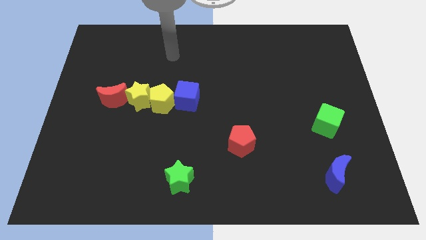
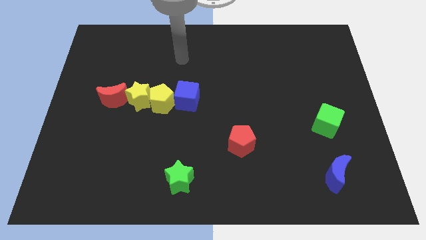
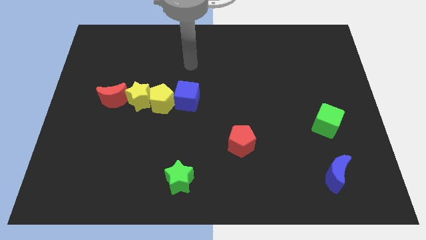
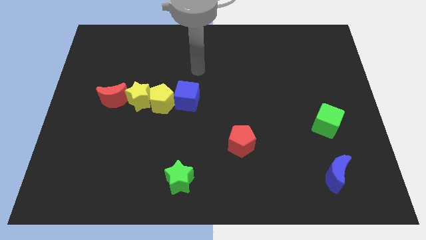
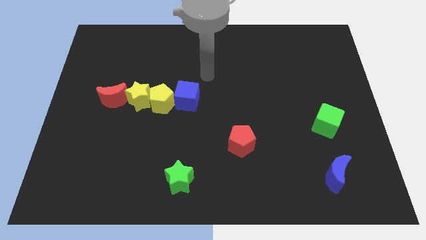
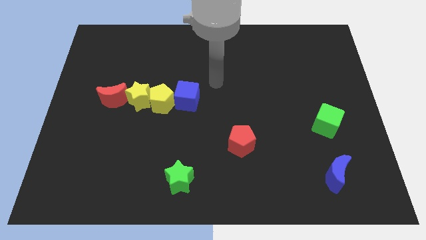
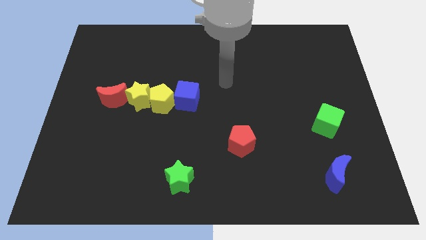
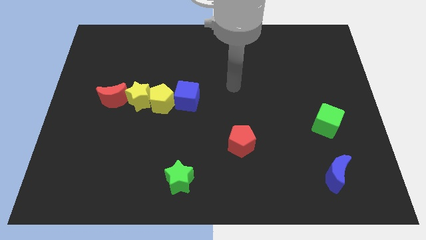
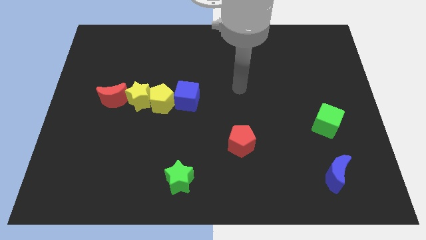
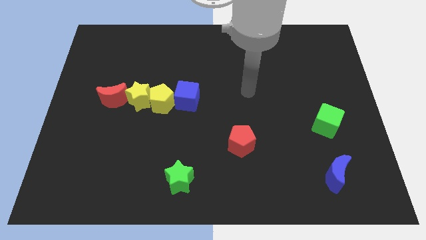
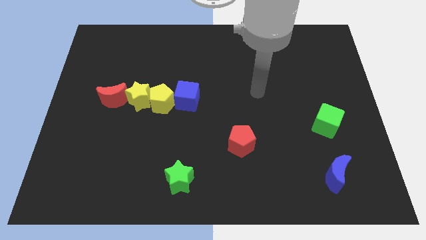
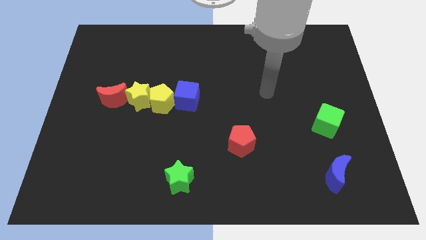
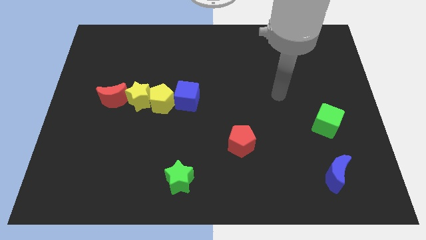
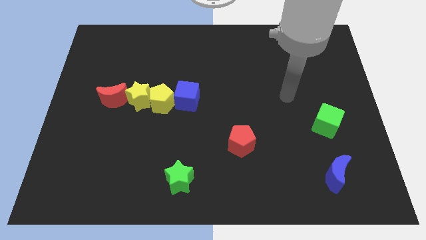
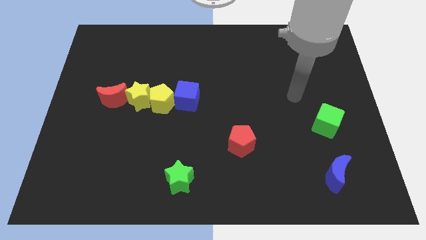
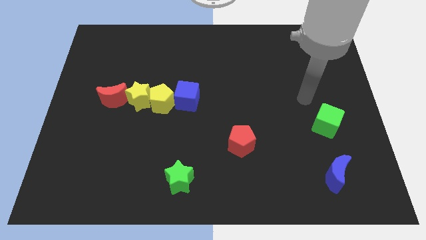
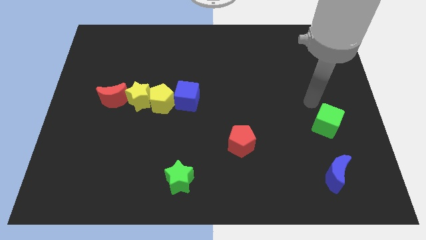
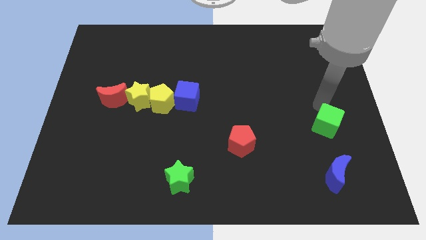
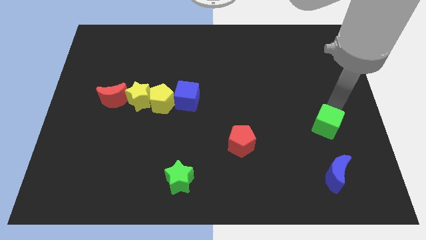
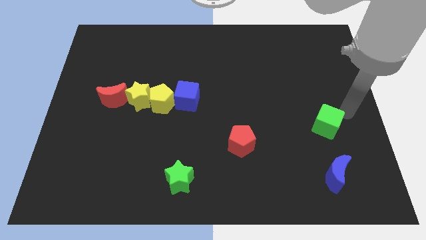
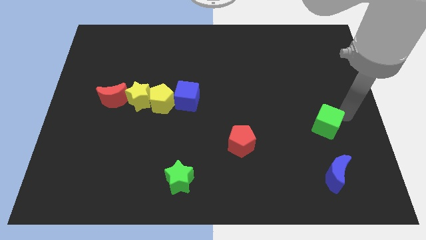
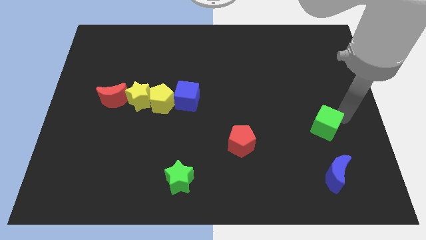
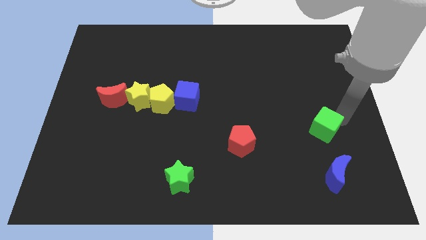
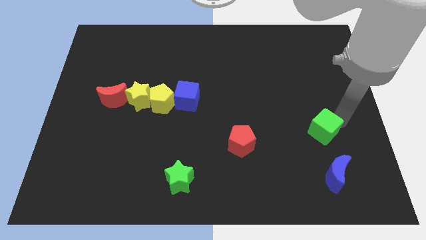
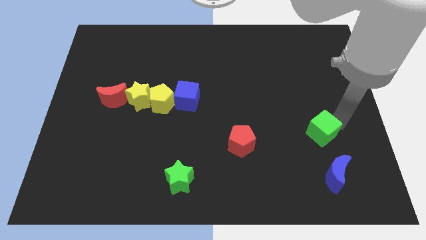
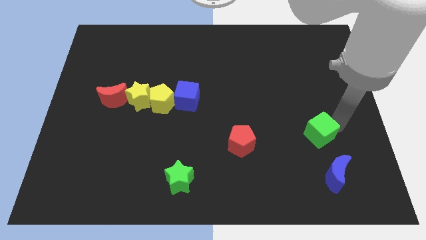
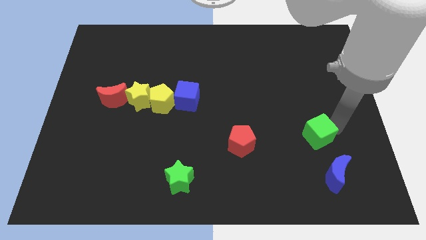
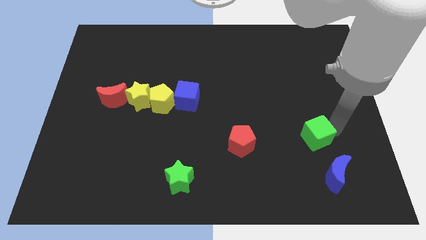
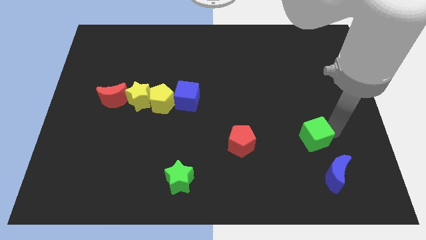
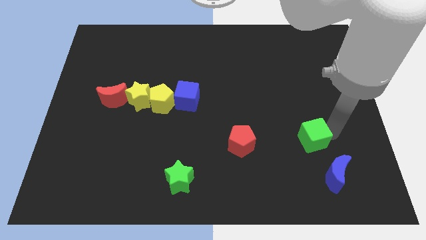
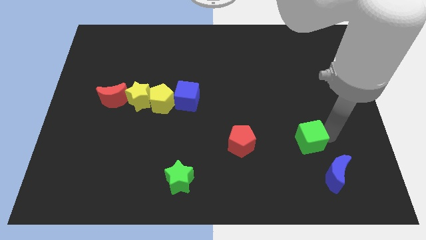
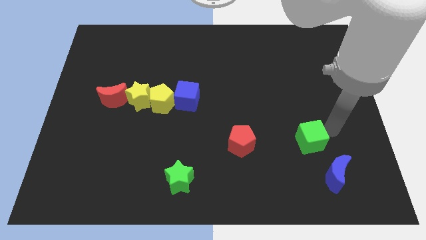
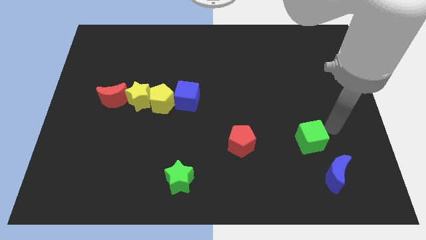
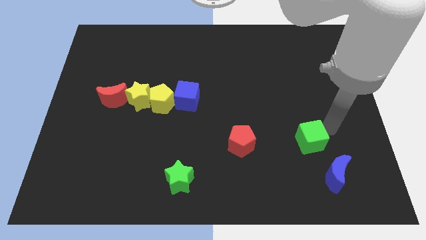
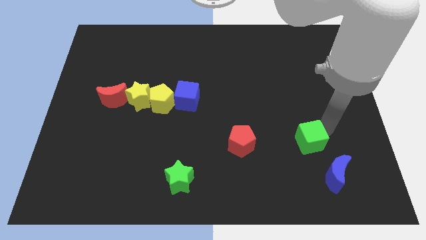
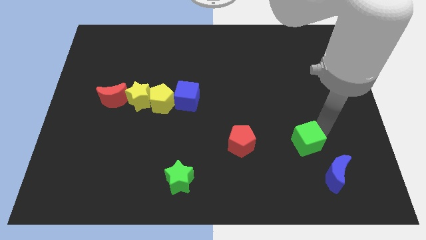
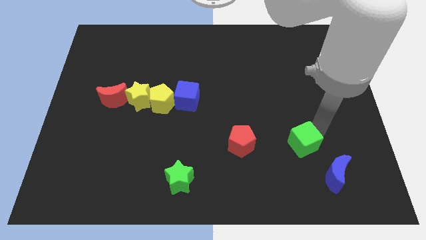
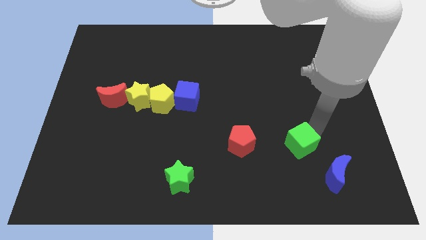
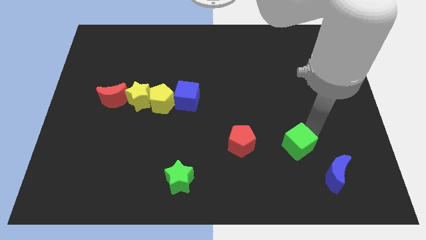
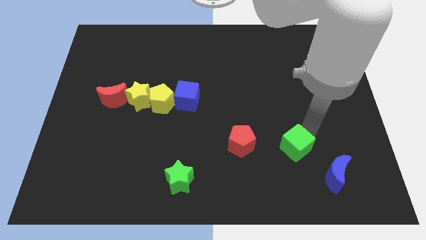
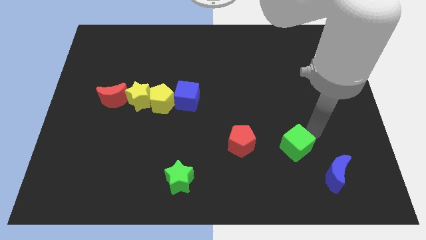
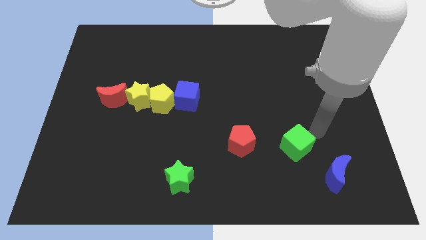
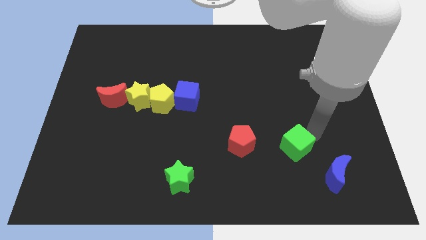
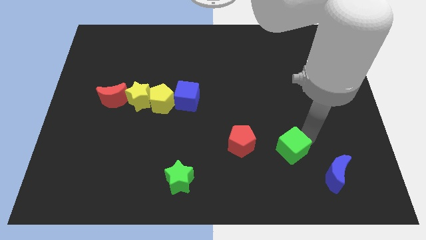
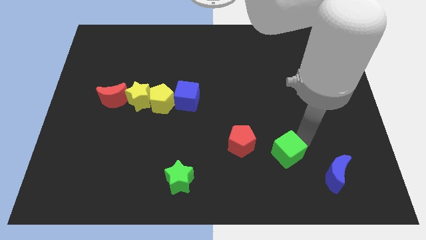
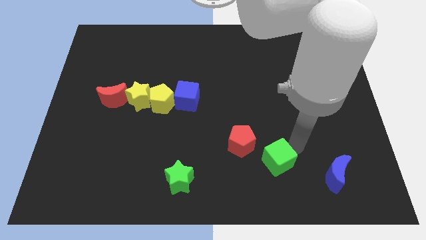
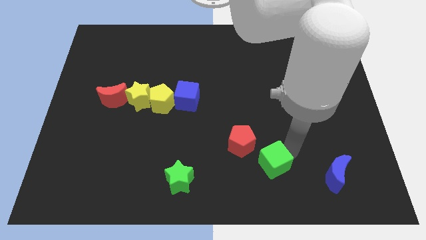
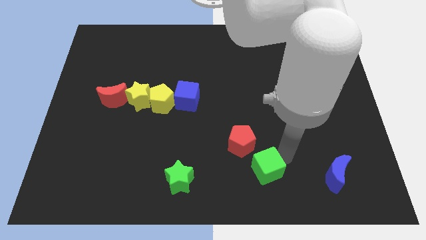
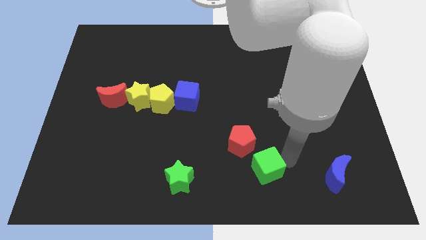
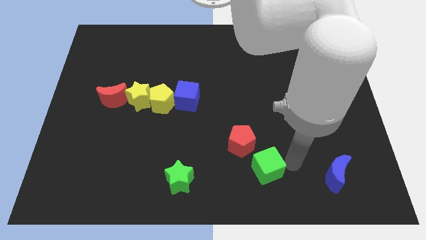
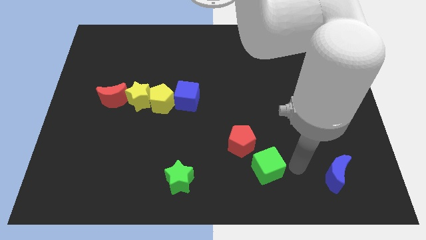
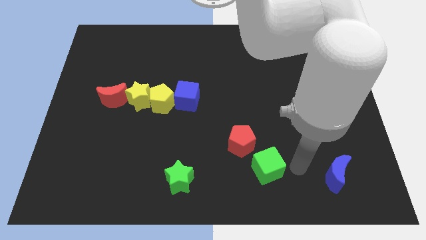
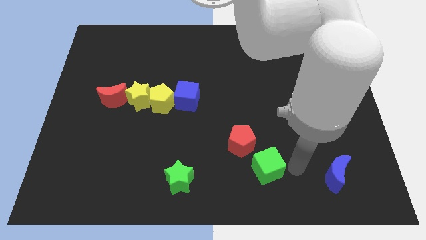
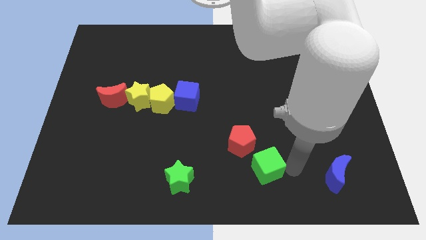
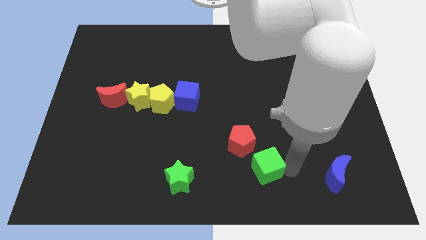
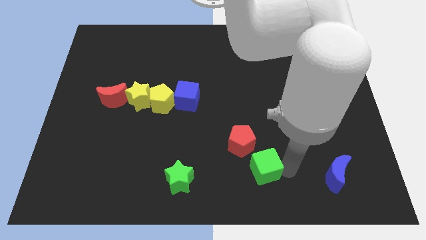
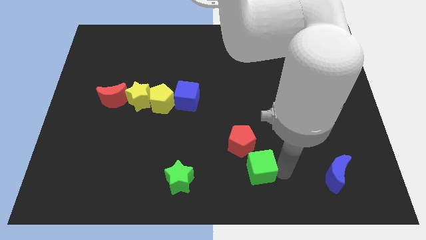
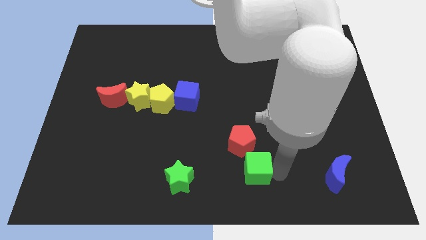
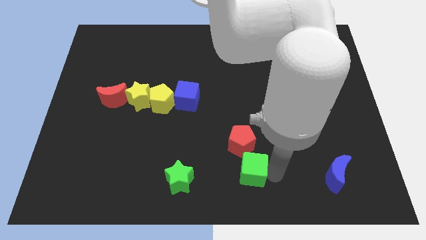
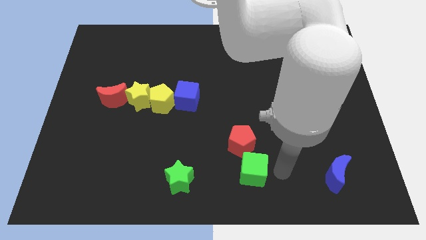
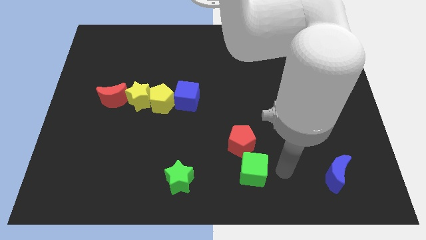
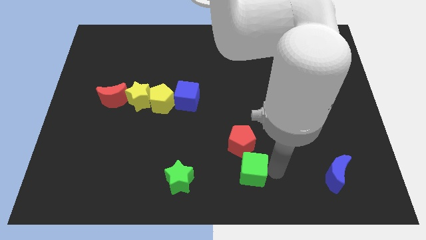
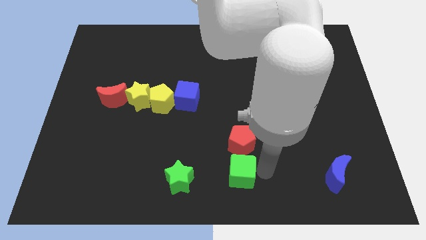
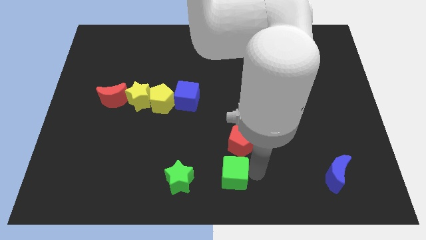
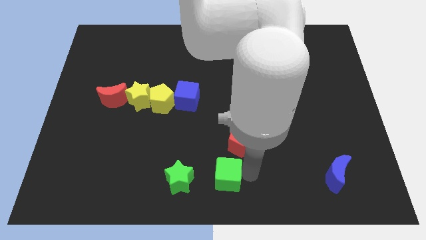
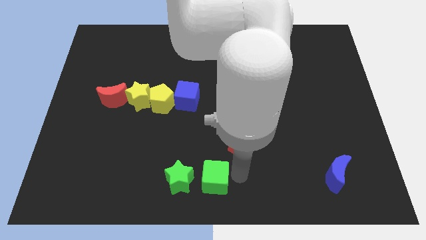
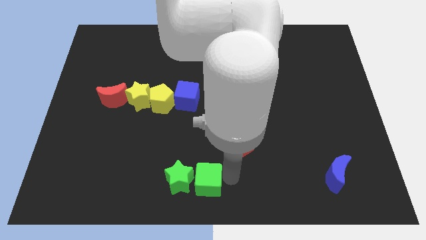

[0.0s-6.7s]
push the green cube close to the green star

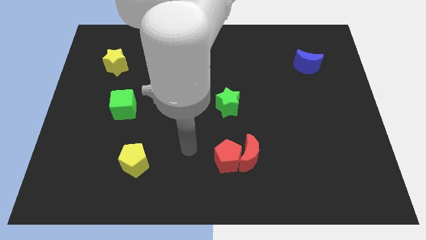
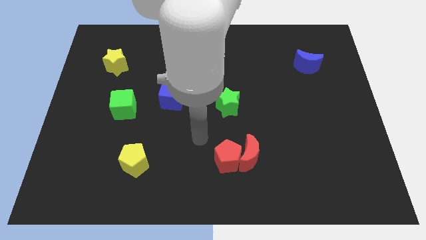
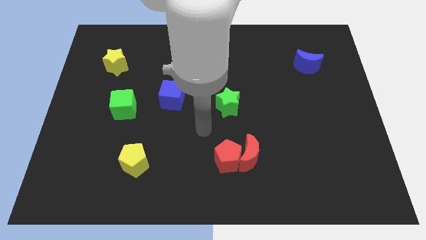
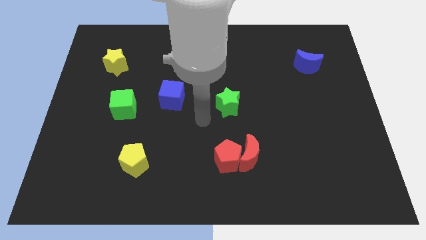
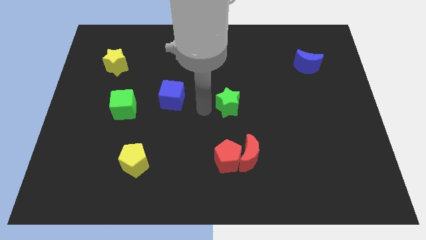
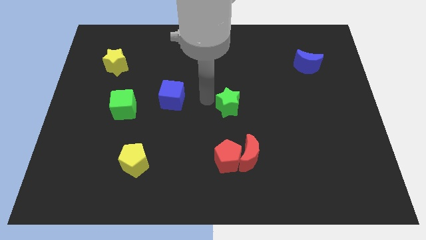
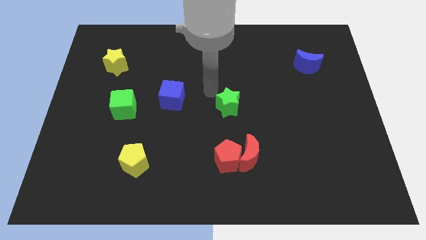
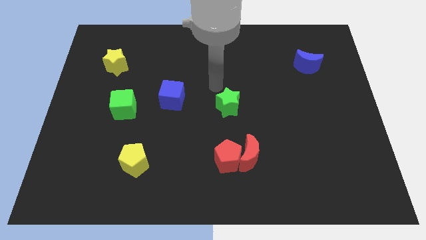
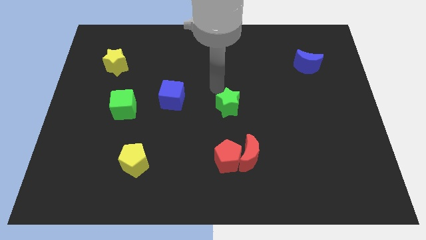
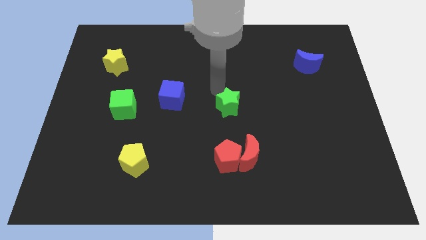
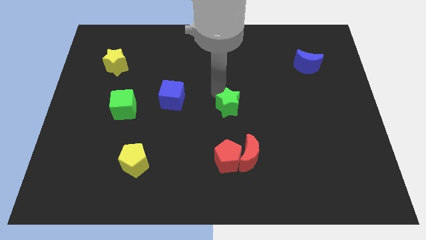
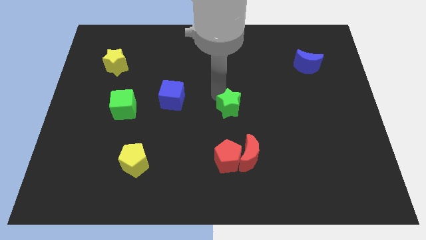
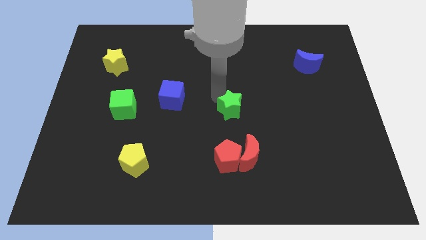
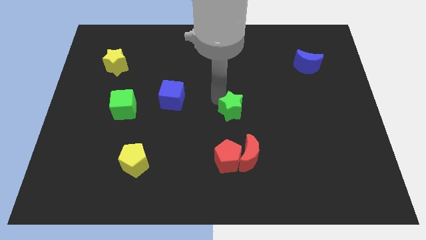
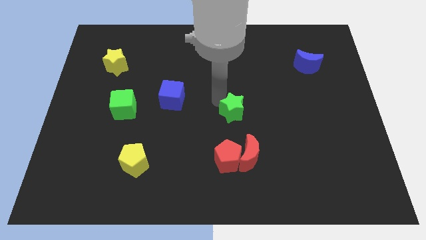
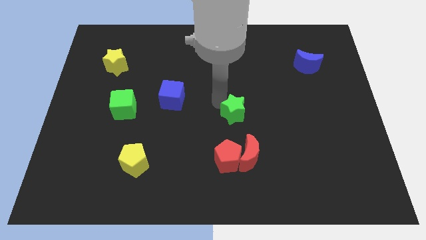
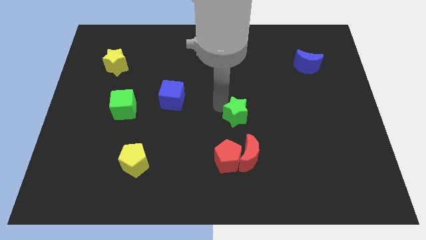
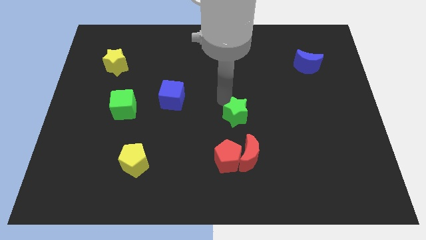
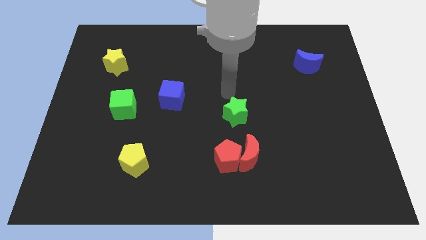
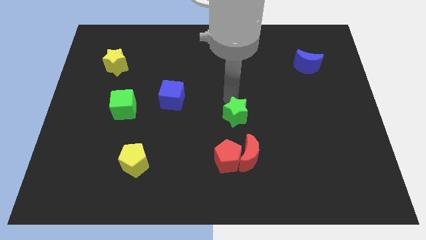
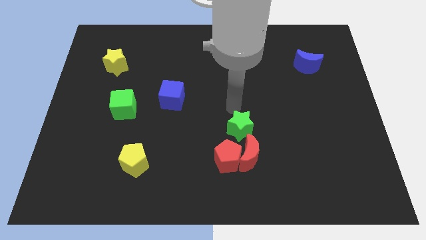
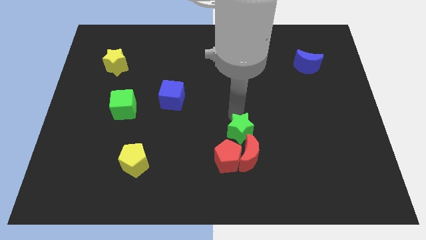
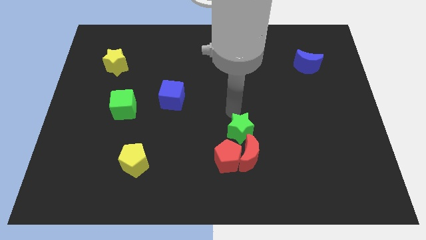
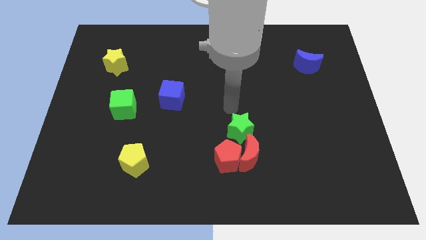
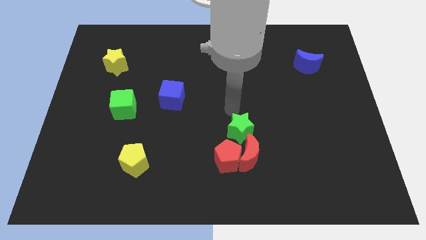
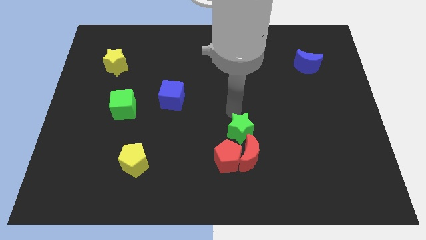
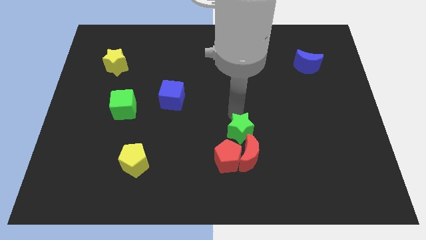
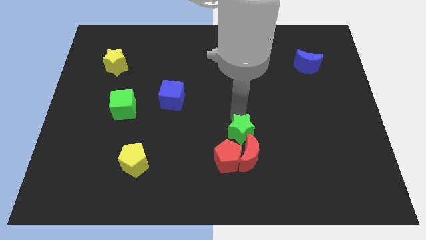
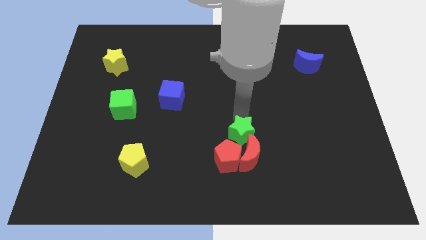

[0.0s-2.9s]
move the green star close to the red moon
